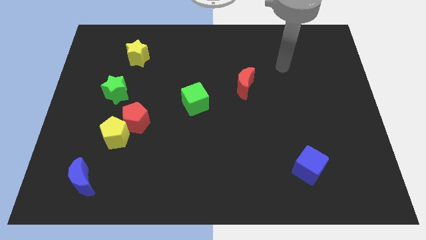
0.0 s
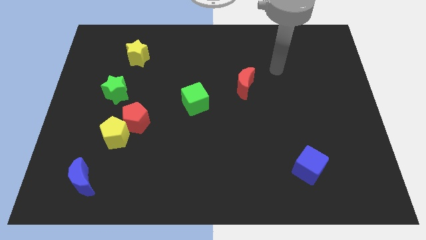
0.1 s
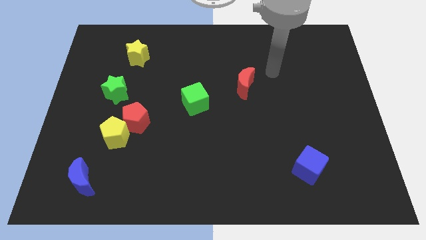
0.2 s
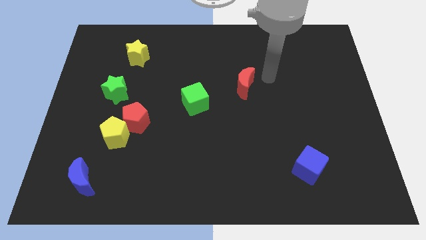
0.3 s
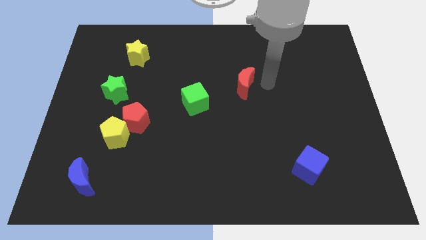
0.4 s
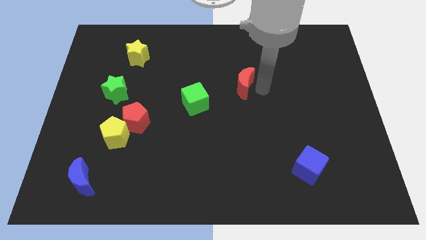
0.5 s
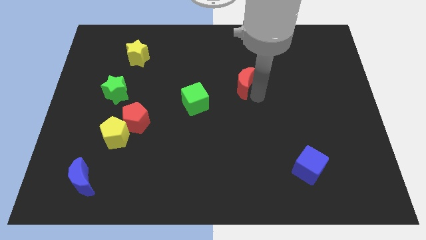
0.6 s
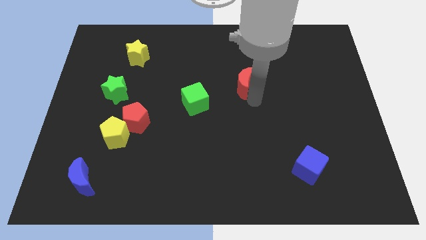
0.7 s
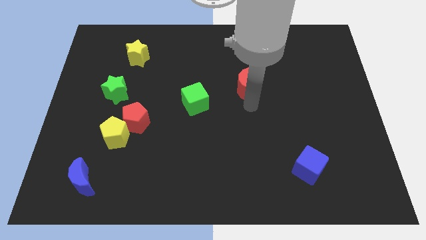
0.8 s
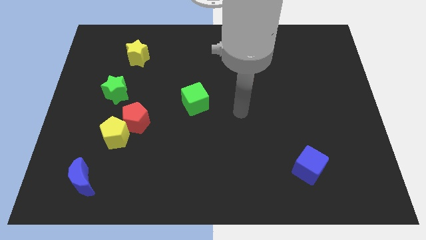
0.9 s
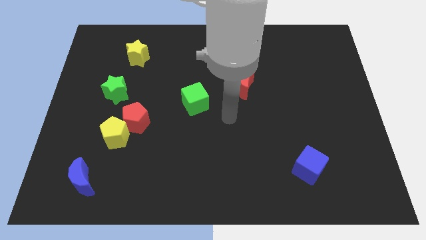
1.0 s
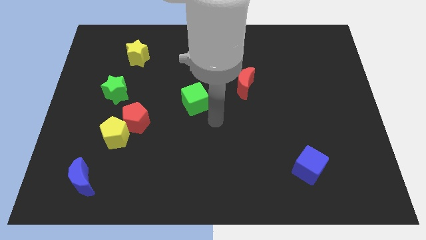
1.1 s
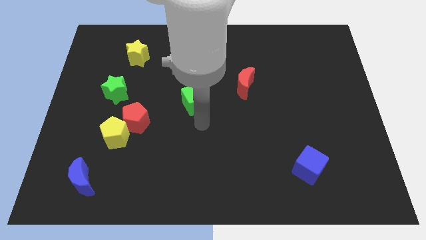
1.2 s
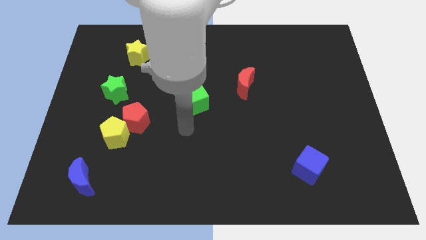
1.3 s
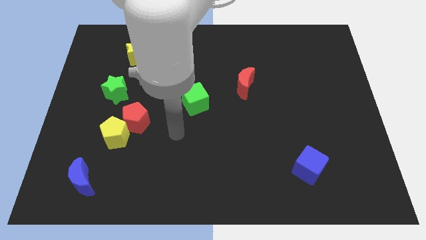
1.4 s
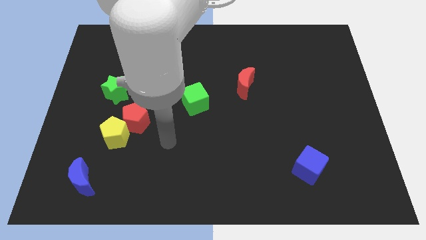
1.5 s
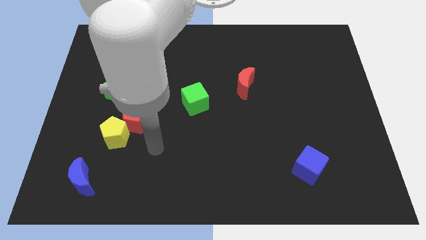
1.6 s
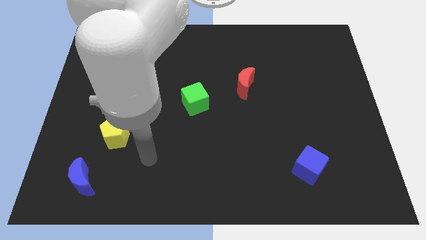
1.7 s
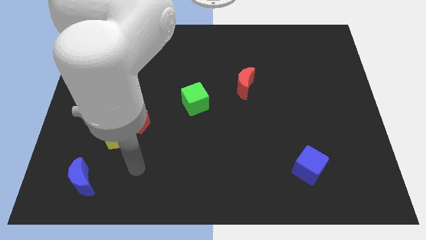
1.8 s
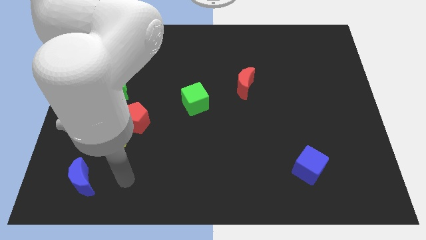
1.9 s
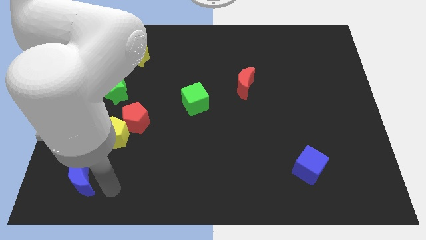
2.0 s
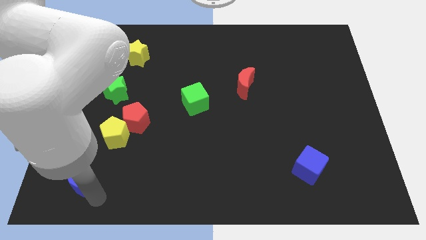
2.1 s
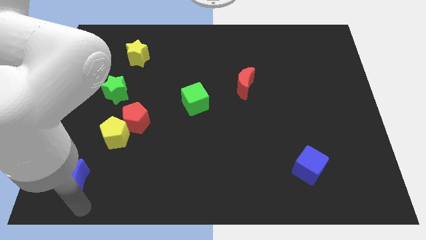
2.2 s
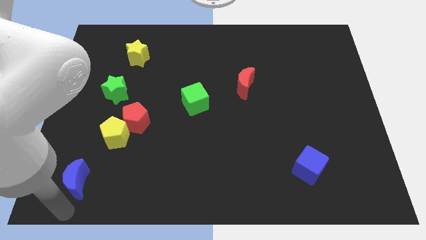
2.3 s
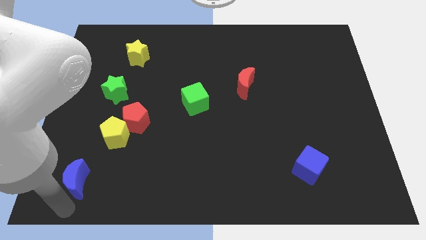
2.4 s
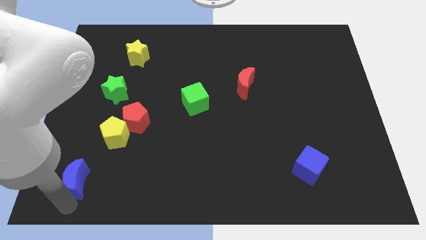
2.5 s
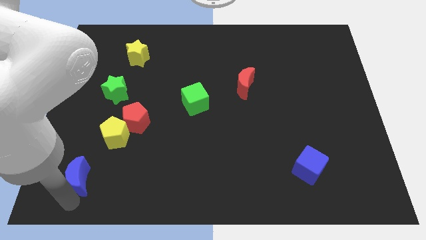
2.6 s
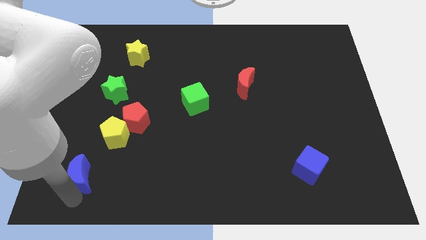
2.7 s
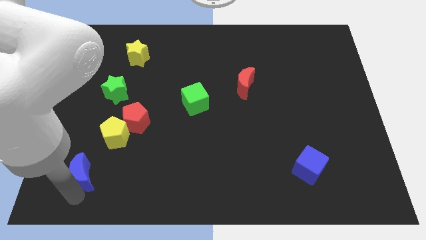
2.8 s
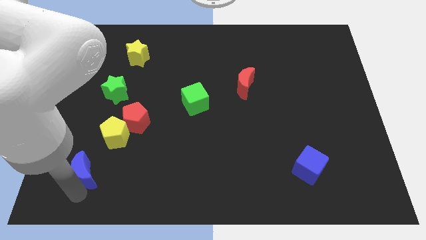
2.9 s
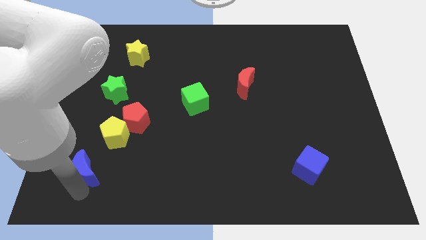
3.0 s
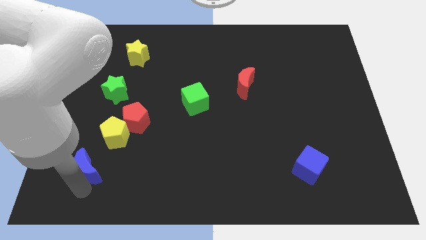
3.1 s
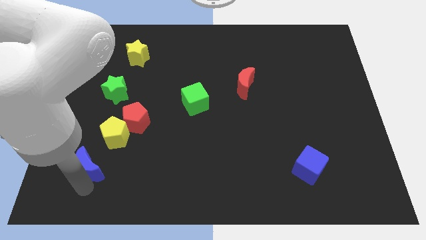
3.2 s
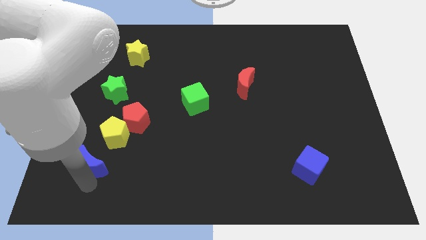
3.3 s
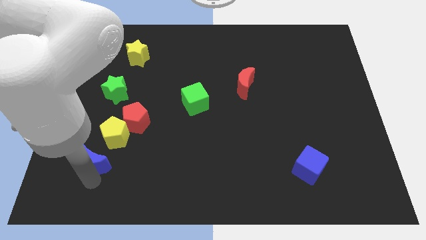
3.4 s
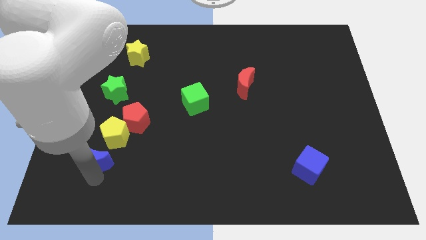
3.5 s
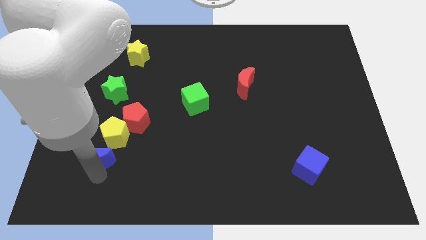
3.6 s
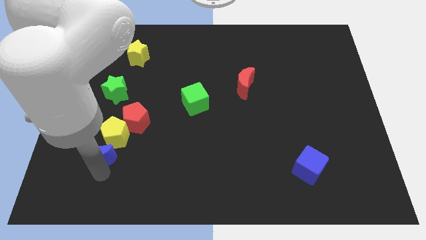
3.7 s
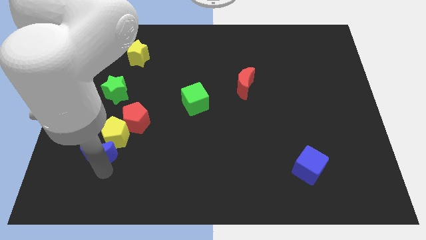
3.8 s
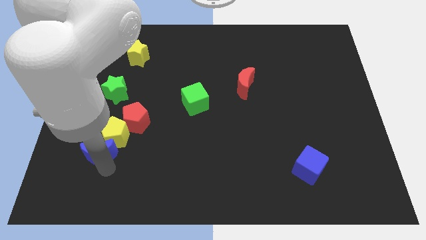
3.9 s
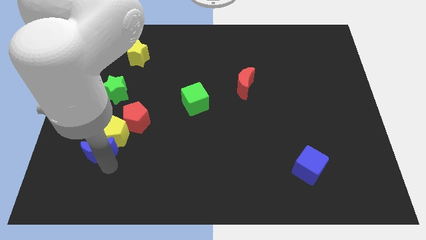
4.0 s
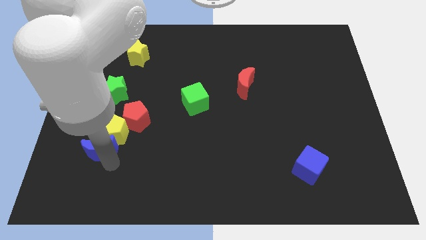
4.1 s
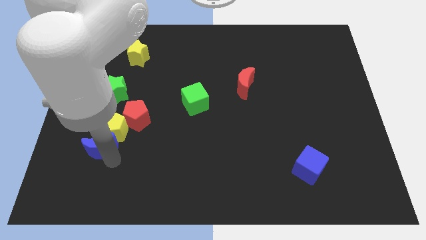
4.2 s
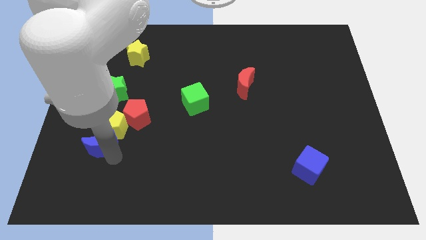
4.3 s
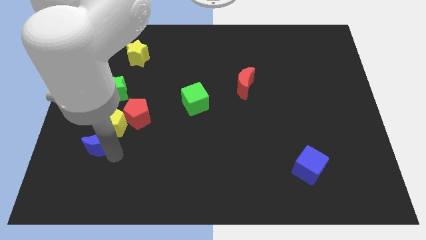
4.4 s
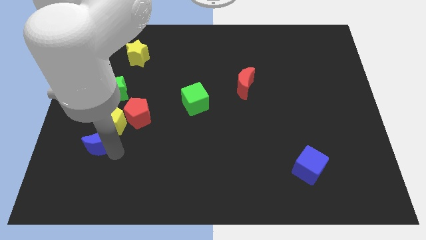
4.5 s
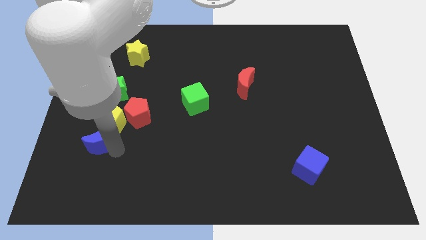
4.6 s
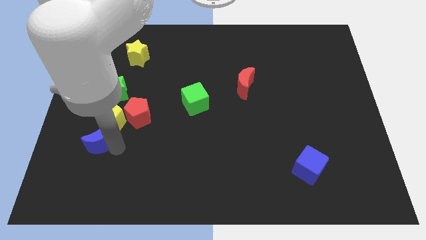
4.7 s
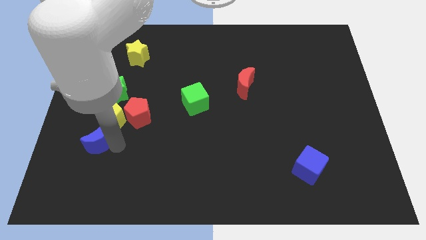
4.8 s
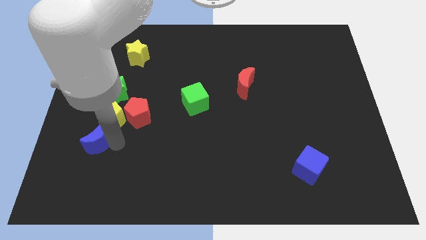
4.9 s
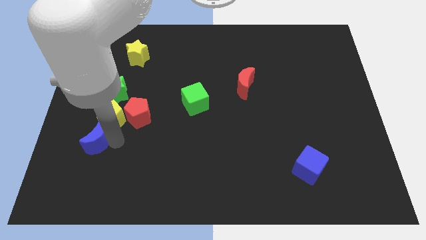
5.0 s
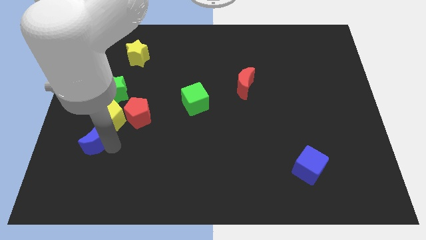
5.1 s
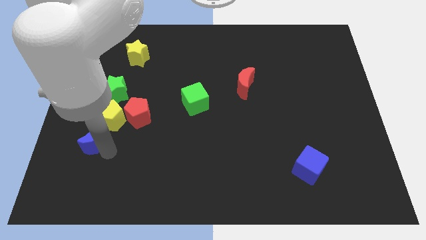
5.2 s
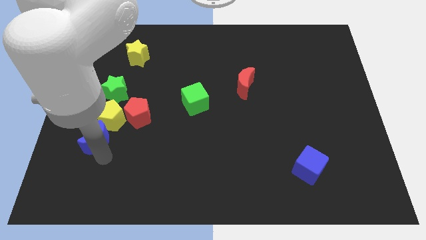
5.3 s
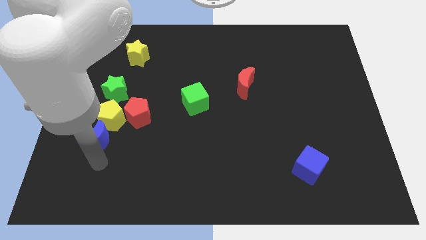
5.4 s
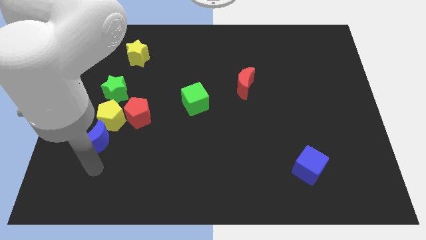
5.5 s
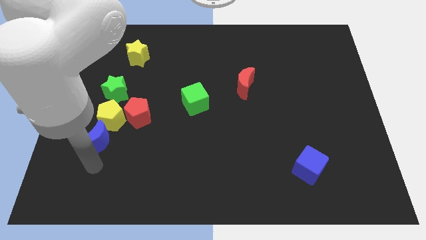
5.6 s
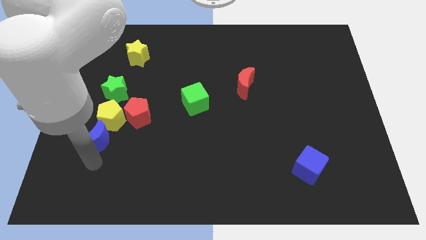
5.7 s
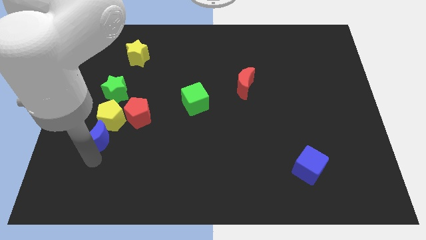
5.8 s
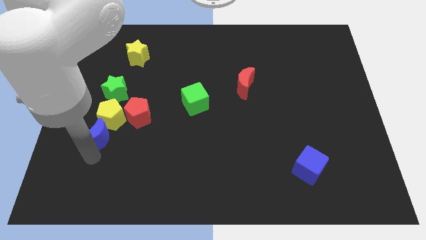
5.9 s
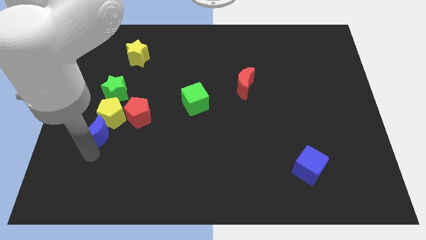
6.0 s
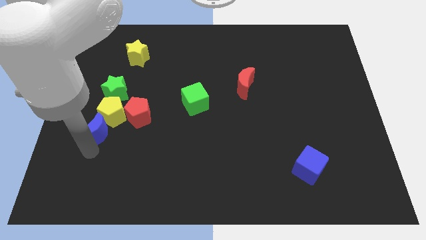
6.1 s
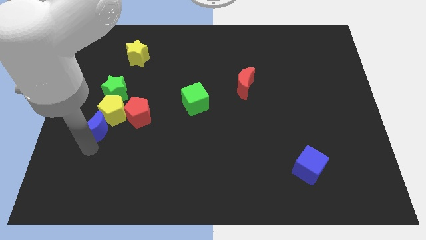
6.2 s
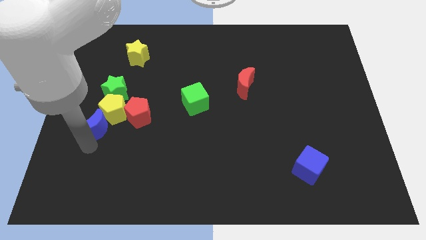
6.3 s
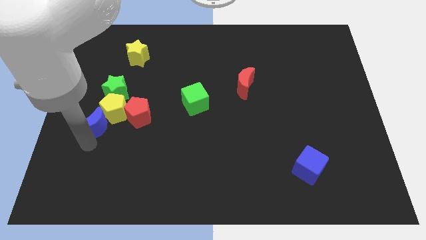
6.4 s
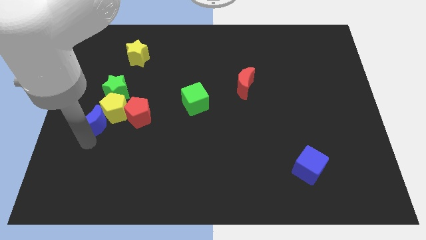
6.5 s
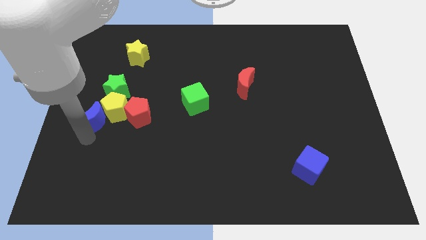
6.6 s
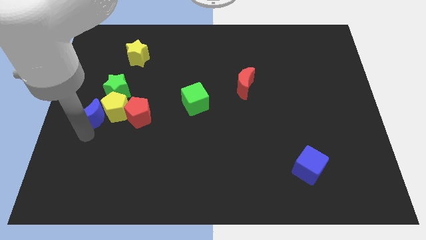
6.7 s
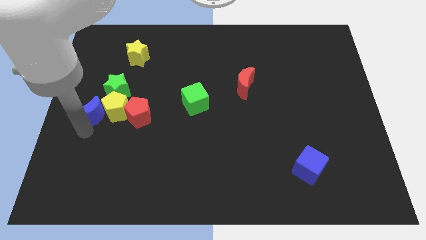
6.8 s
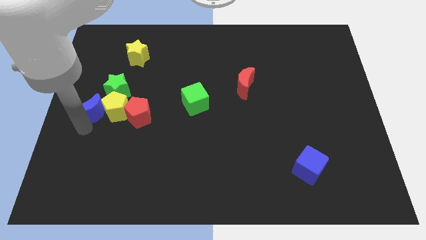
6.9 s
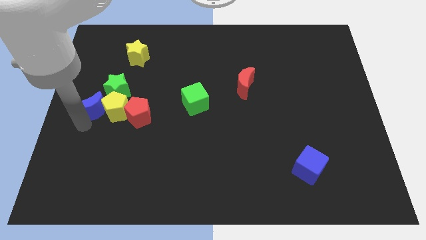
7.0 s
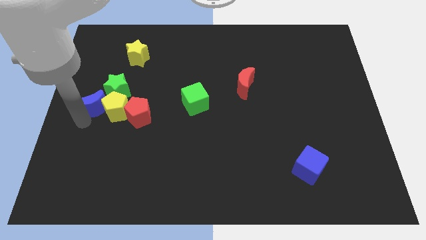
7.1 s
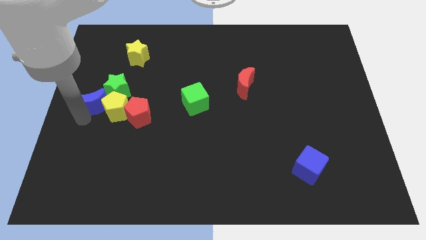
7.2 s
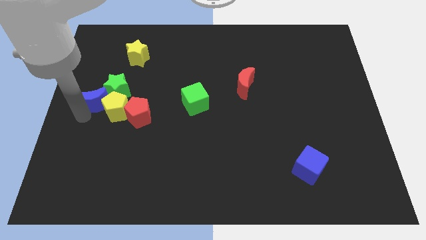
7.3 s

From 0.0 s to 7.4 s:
put the blue moon next to the green star

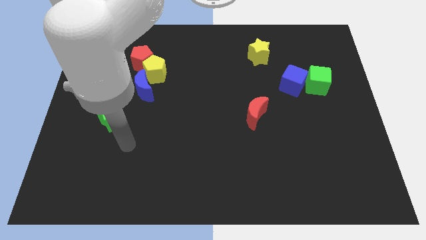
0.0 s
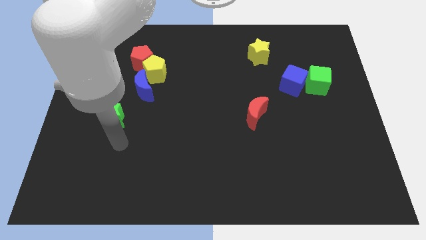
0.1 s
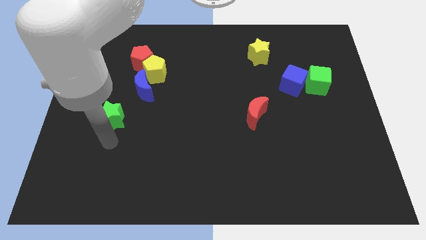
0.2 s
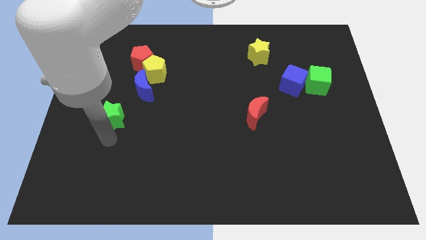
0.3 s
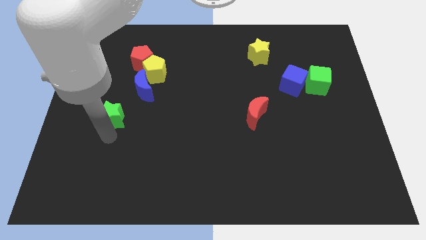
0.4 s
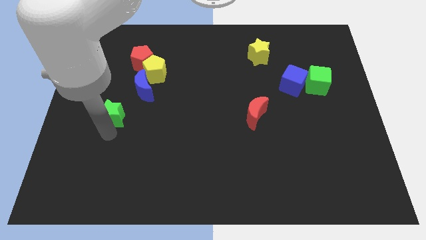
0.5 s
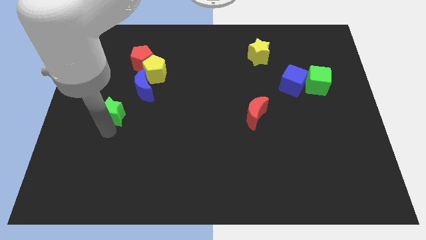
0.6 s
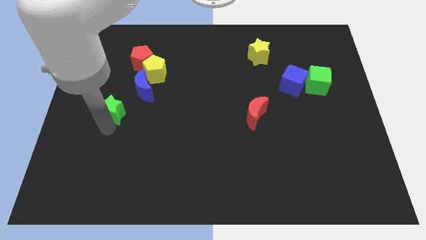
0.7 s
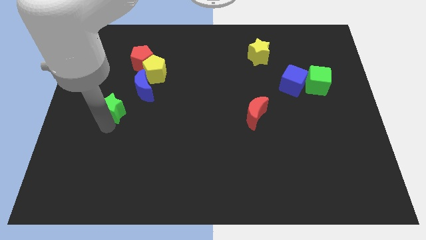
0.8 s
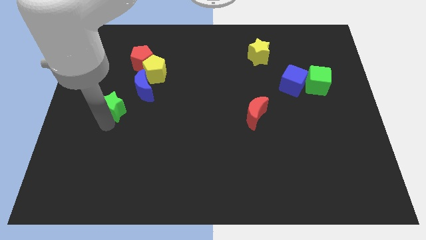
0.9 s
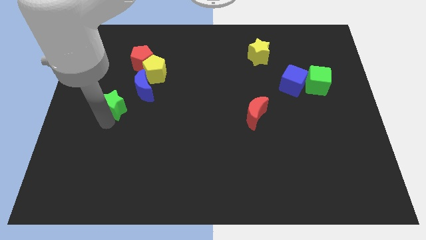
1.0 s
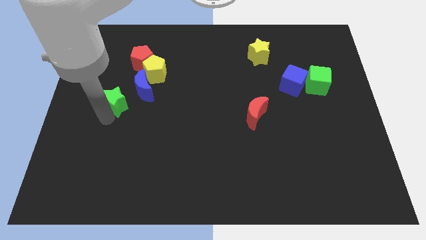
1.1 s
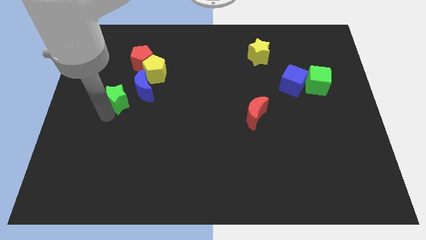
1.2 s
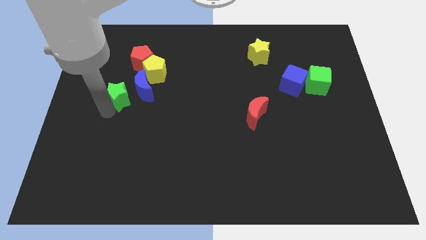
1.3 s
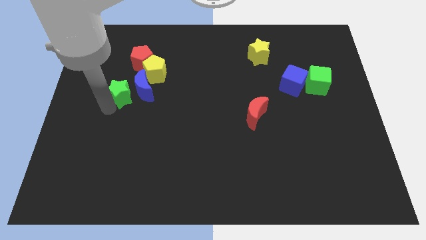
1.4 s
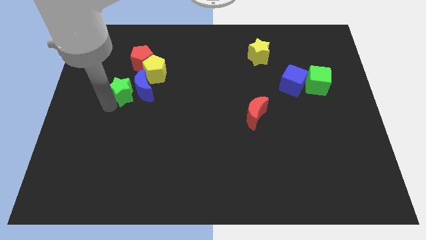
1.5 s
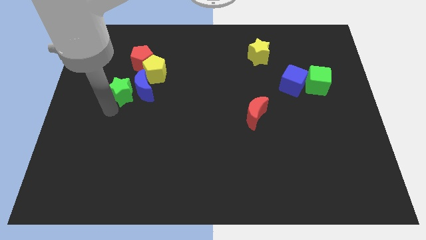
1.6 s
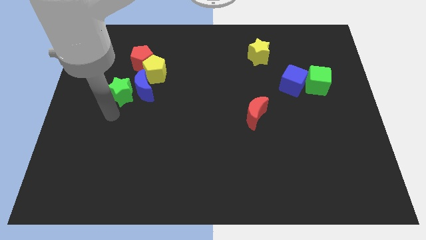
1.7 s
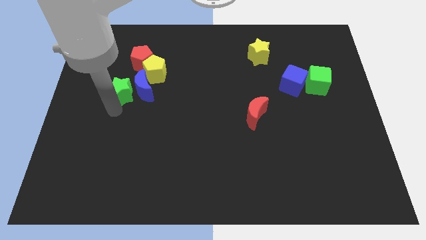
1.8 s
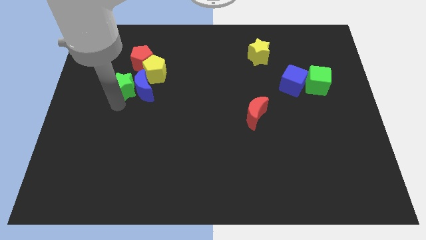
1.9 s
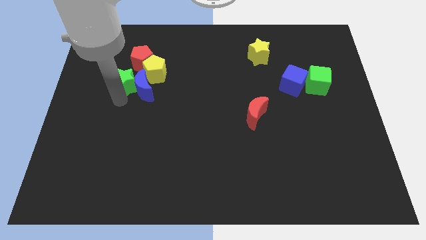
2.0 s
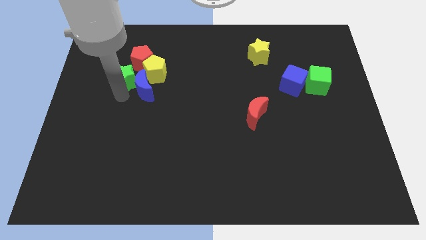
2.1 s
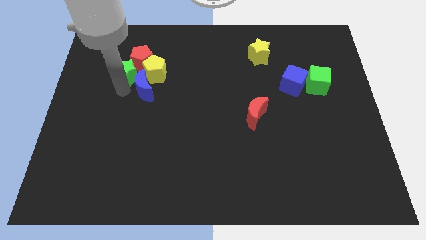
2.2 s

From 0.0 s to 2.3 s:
push the green star next to the red pentagon
